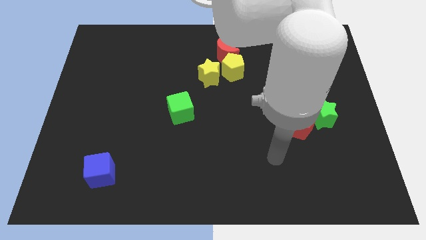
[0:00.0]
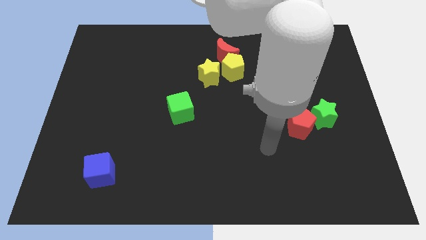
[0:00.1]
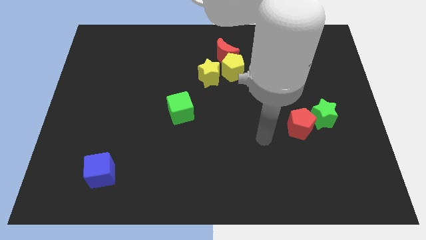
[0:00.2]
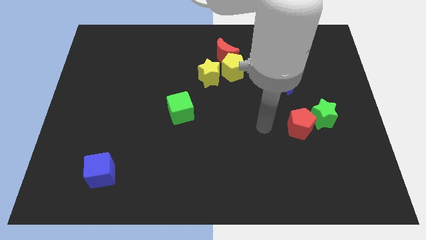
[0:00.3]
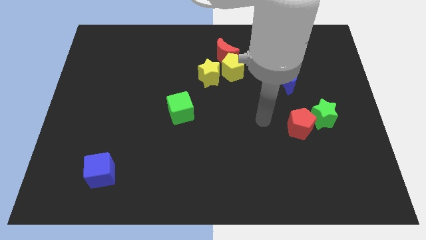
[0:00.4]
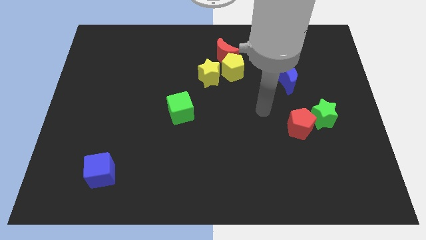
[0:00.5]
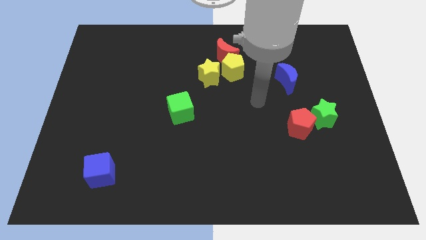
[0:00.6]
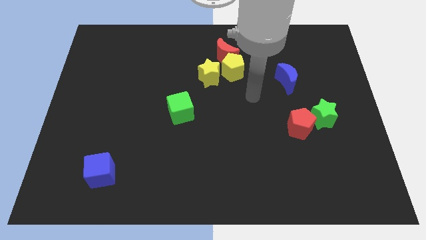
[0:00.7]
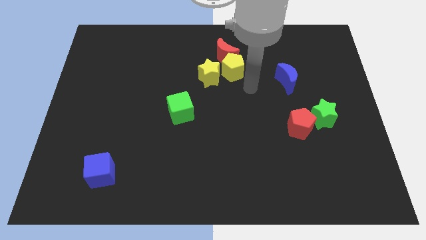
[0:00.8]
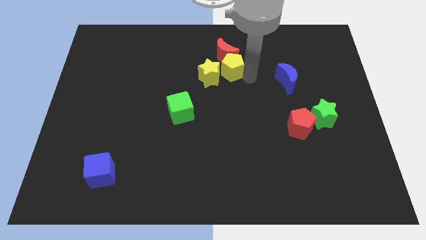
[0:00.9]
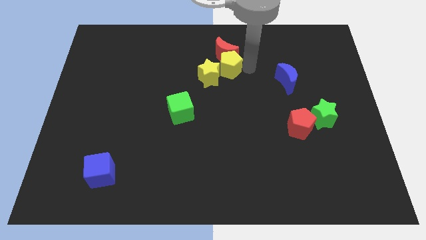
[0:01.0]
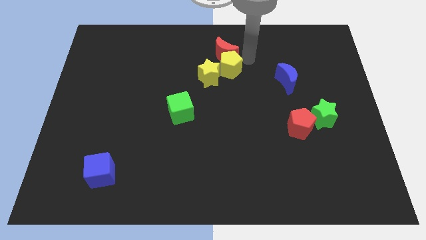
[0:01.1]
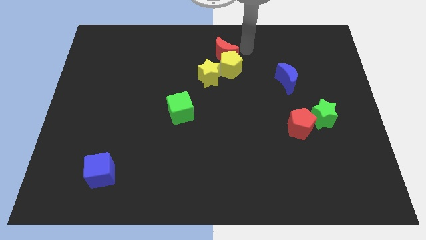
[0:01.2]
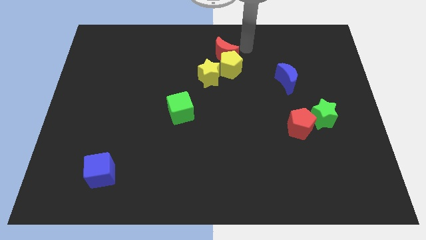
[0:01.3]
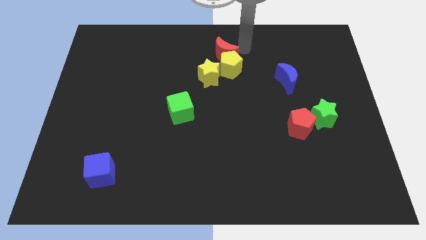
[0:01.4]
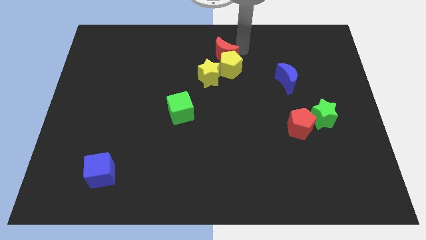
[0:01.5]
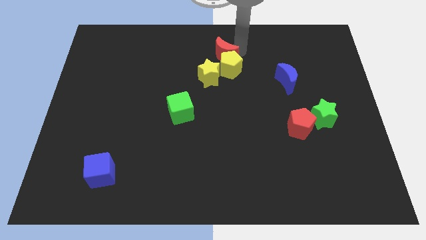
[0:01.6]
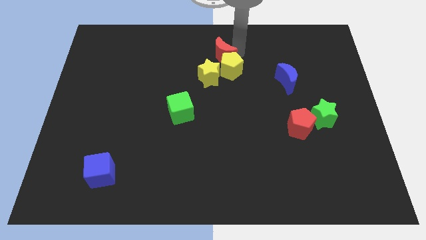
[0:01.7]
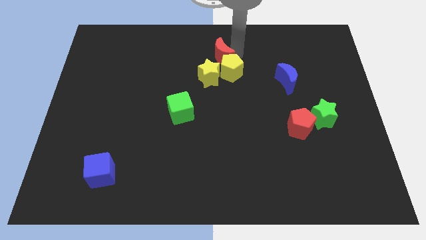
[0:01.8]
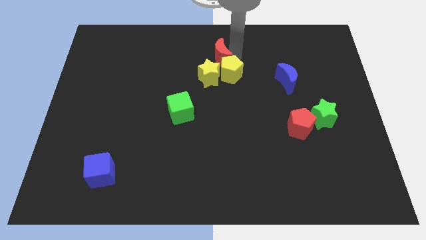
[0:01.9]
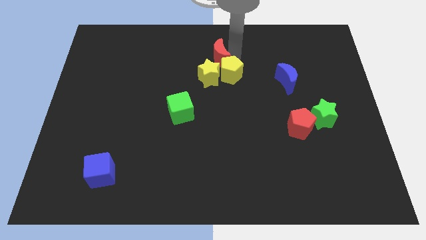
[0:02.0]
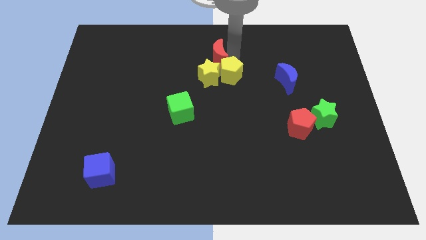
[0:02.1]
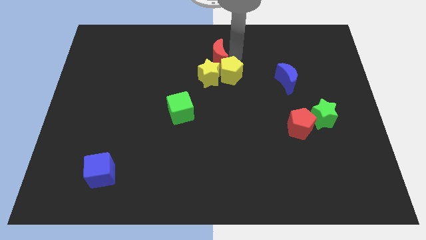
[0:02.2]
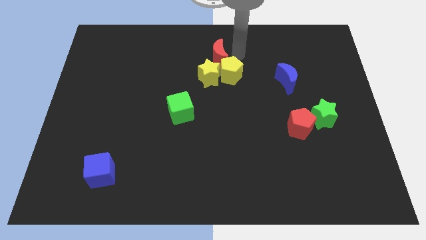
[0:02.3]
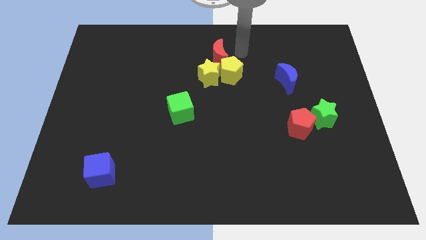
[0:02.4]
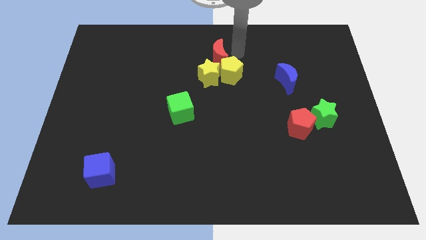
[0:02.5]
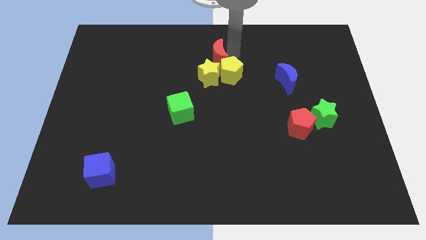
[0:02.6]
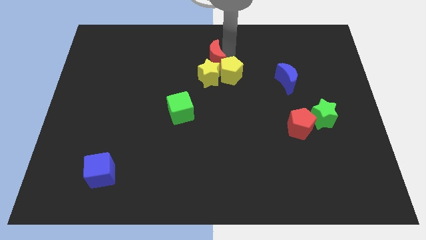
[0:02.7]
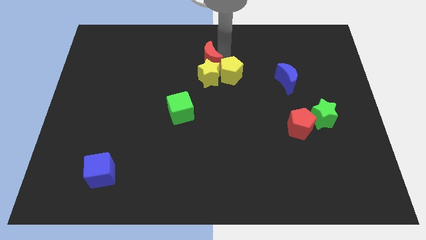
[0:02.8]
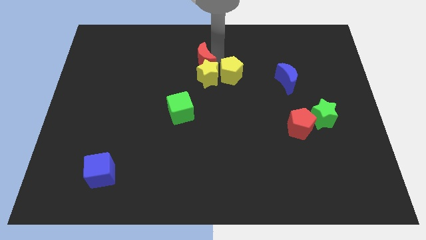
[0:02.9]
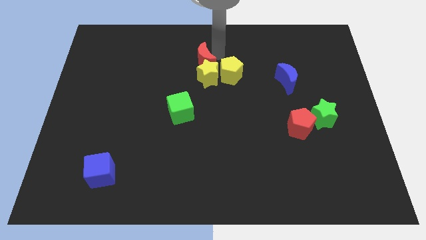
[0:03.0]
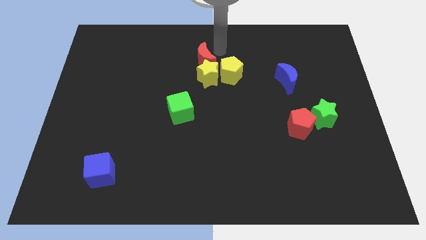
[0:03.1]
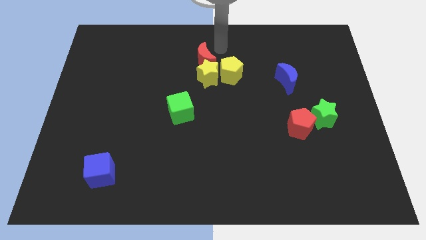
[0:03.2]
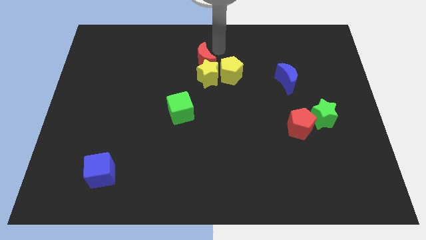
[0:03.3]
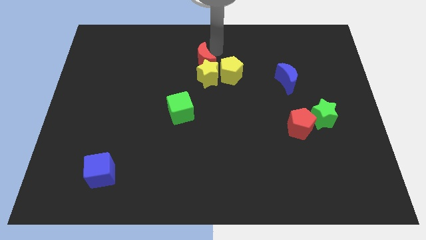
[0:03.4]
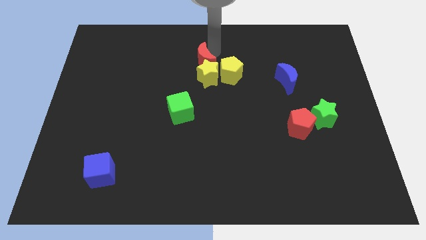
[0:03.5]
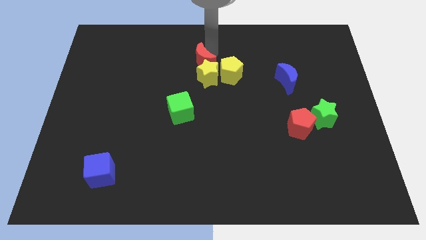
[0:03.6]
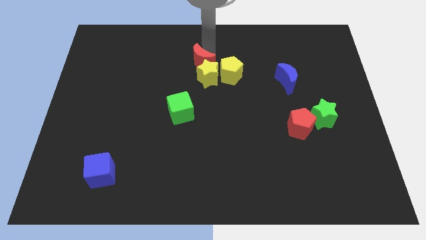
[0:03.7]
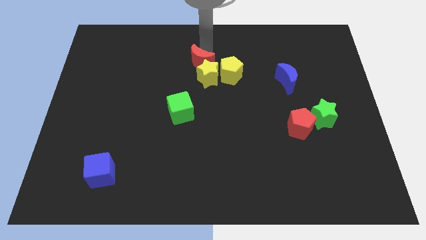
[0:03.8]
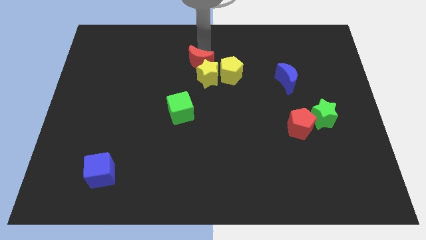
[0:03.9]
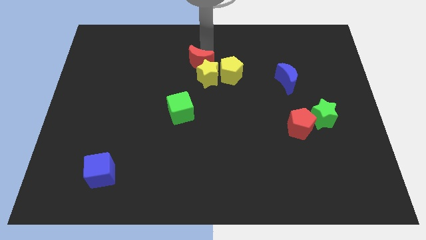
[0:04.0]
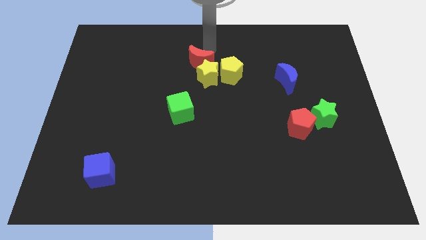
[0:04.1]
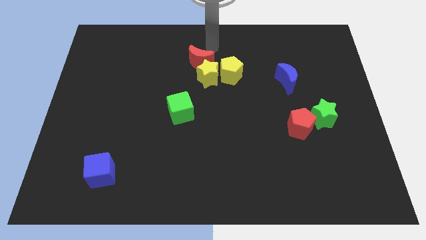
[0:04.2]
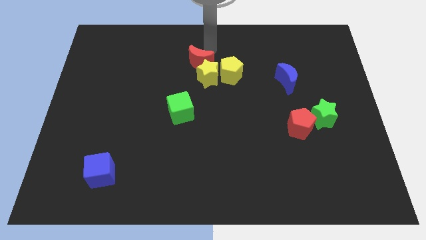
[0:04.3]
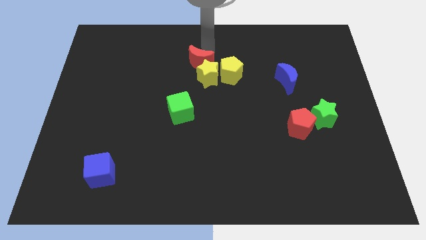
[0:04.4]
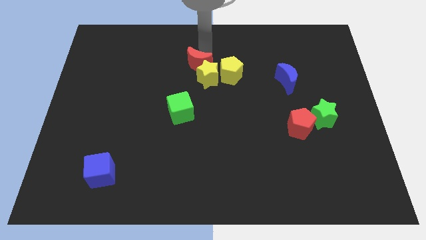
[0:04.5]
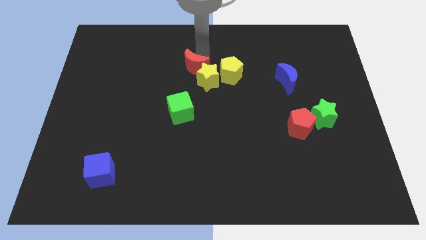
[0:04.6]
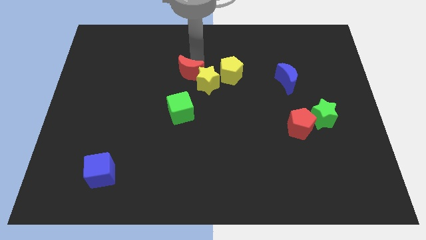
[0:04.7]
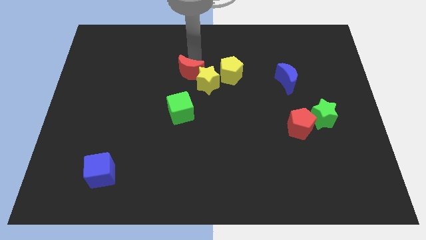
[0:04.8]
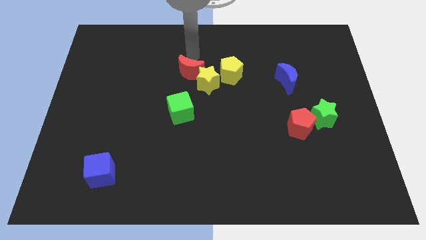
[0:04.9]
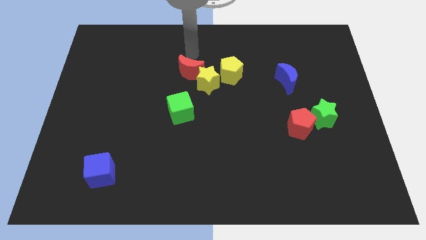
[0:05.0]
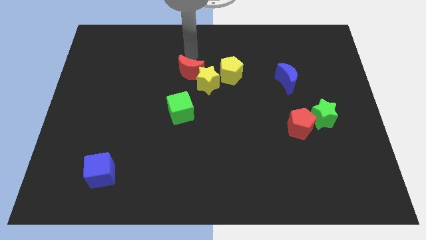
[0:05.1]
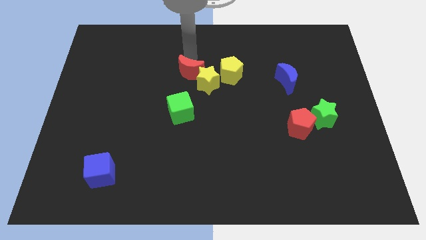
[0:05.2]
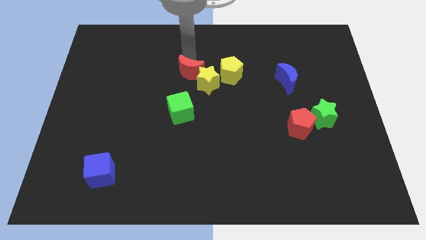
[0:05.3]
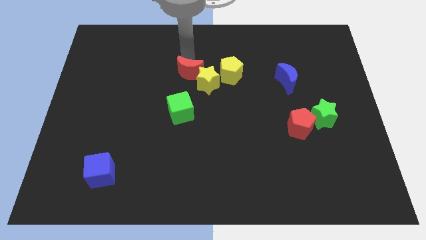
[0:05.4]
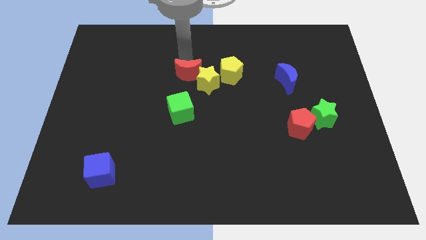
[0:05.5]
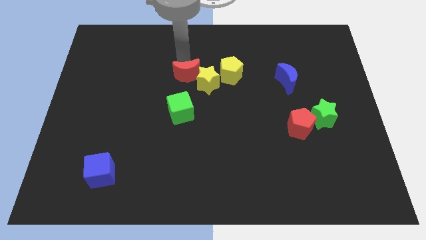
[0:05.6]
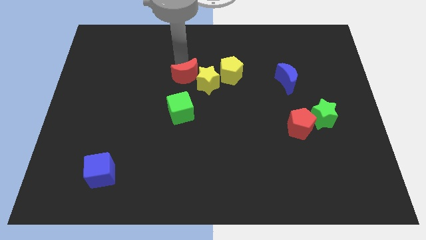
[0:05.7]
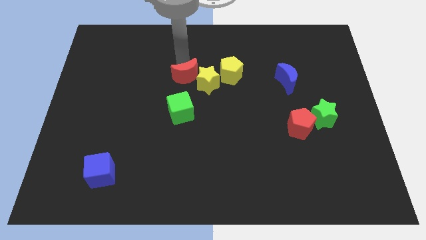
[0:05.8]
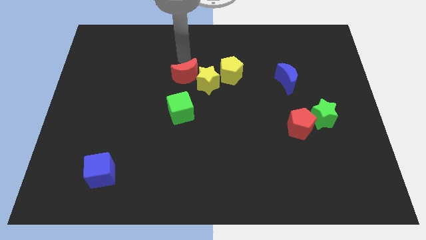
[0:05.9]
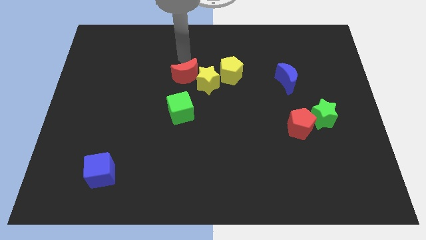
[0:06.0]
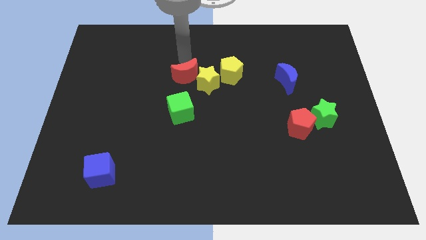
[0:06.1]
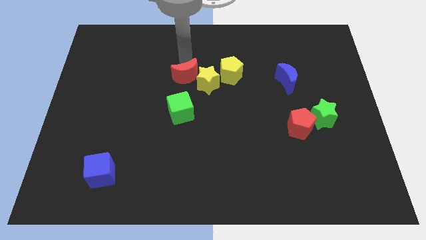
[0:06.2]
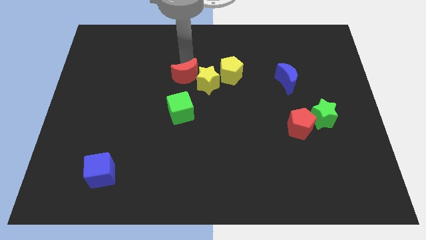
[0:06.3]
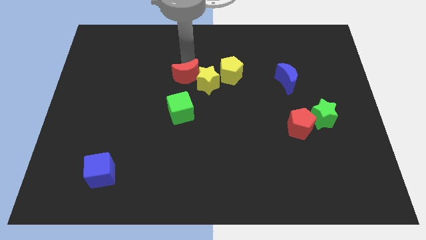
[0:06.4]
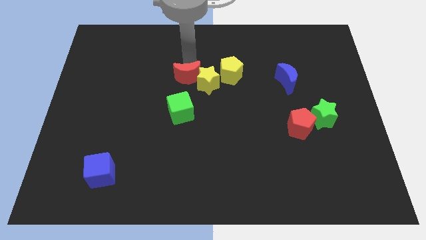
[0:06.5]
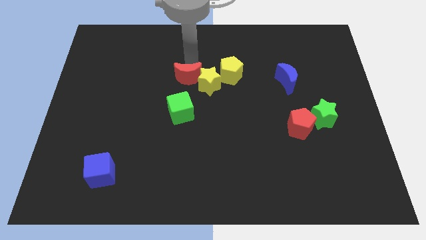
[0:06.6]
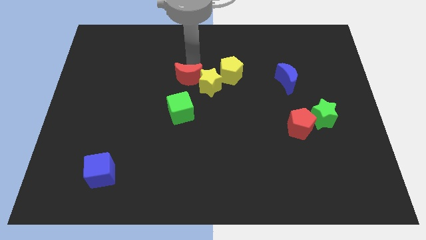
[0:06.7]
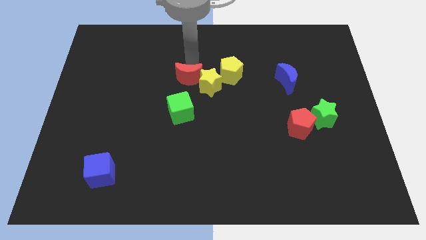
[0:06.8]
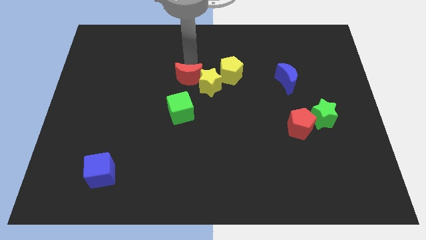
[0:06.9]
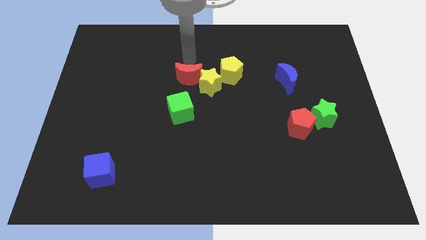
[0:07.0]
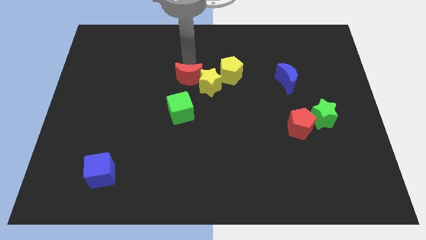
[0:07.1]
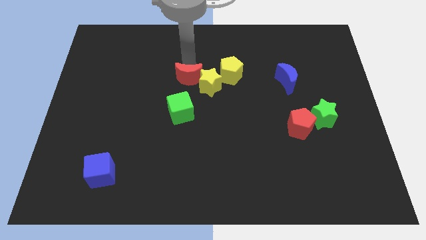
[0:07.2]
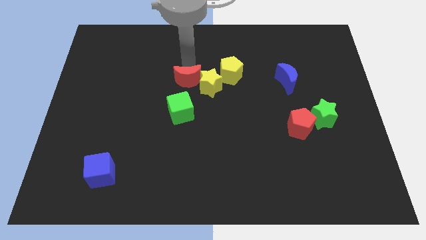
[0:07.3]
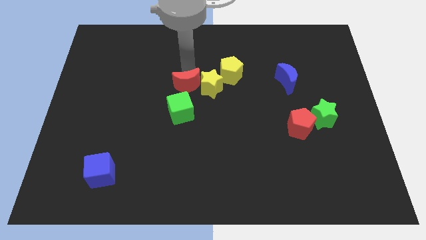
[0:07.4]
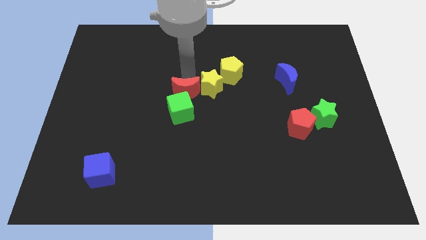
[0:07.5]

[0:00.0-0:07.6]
slide the red moon close to the green cube
